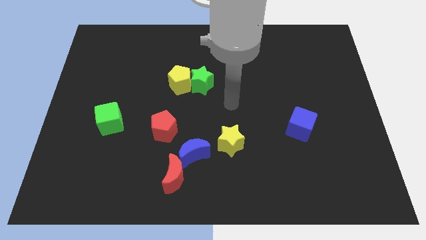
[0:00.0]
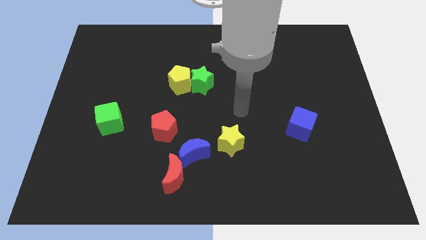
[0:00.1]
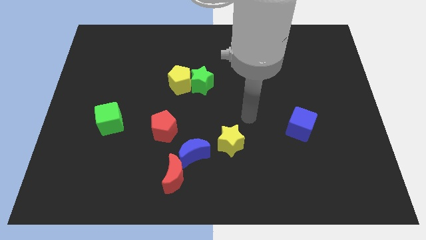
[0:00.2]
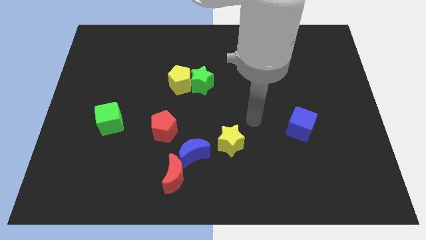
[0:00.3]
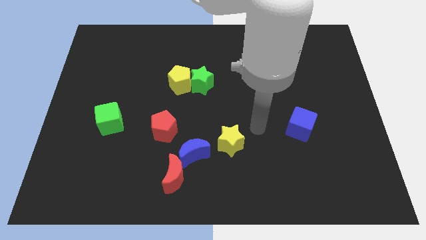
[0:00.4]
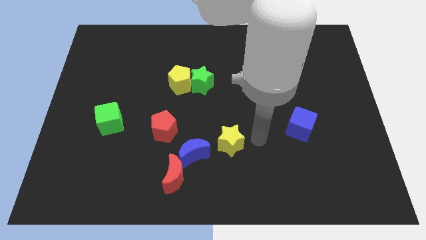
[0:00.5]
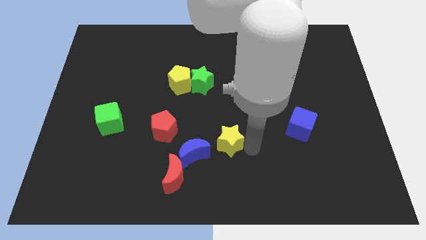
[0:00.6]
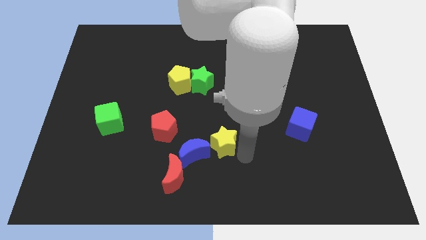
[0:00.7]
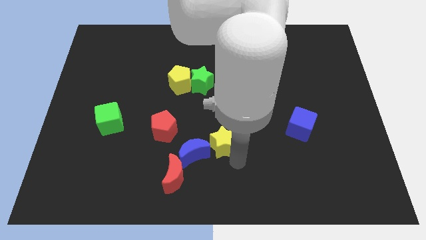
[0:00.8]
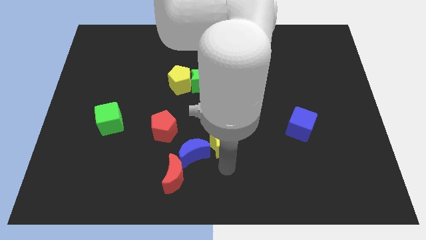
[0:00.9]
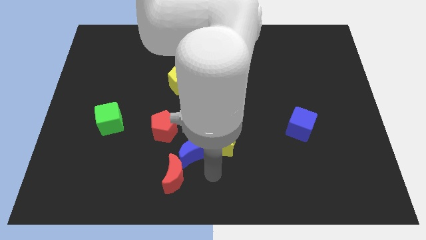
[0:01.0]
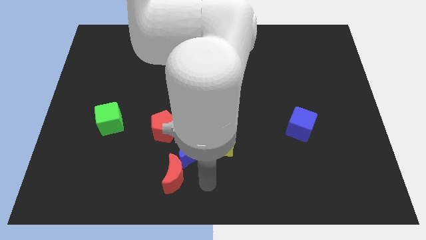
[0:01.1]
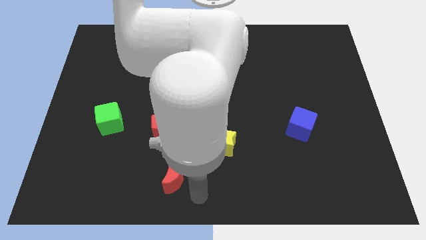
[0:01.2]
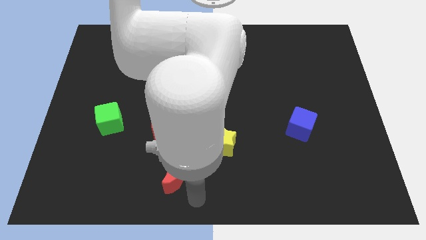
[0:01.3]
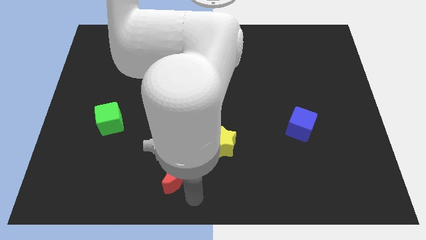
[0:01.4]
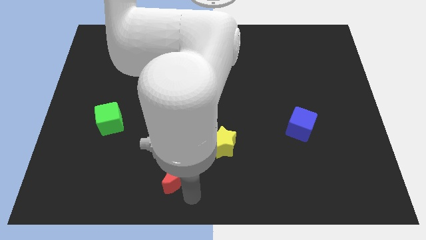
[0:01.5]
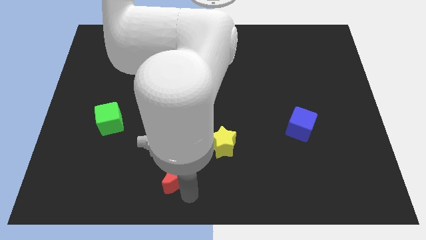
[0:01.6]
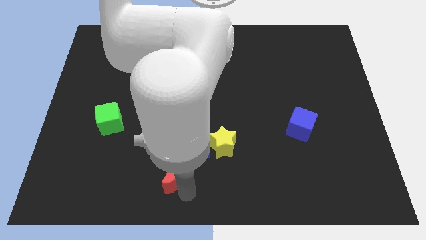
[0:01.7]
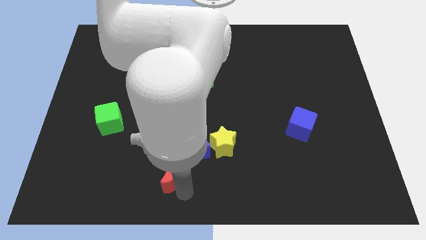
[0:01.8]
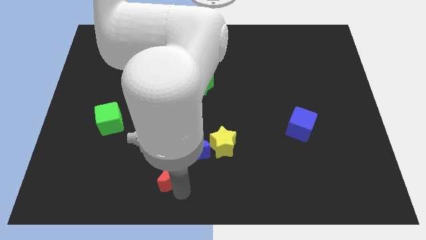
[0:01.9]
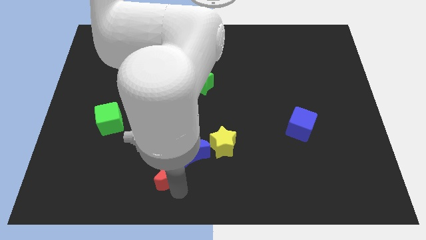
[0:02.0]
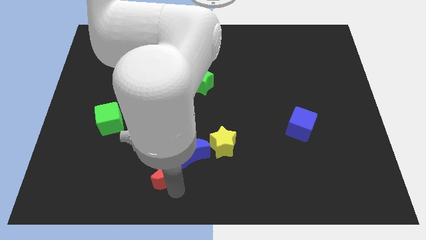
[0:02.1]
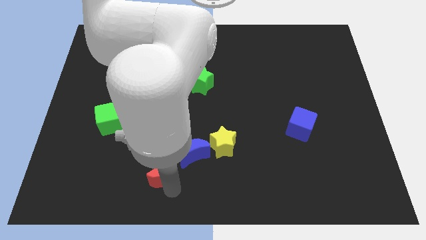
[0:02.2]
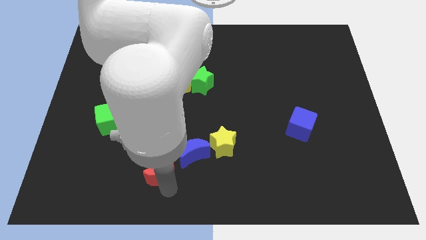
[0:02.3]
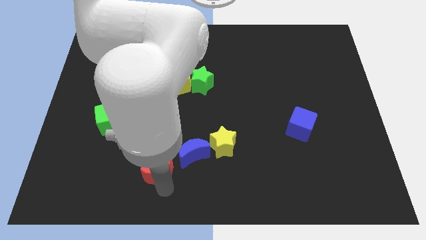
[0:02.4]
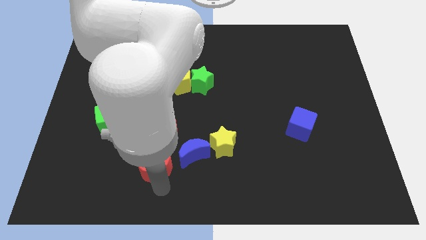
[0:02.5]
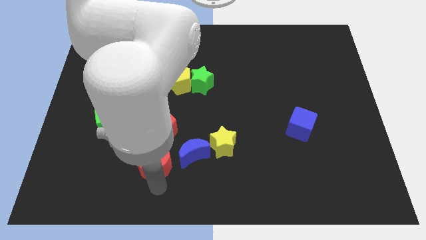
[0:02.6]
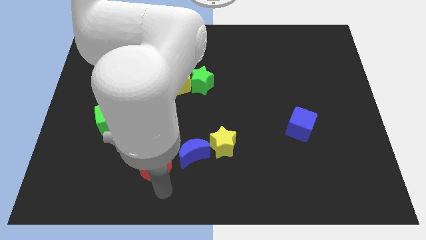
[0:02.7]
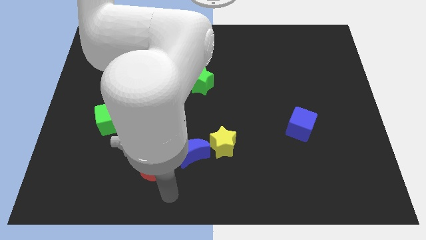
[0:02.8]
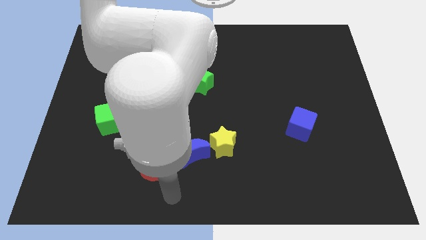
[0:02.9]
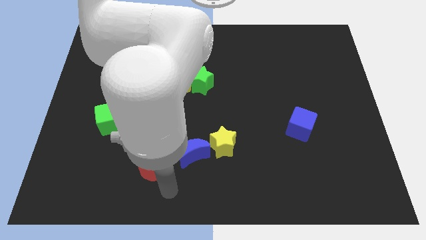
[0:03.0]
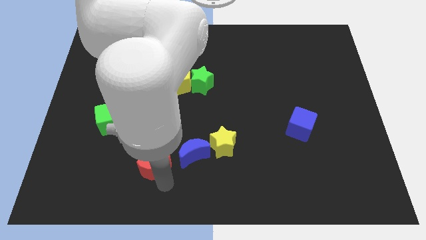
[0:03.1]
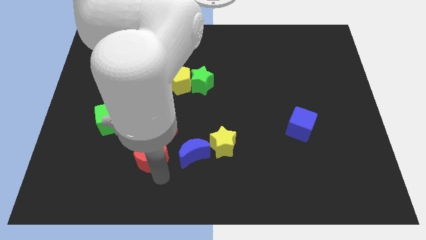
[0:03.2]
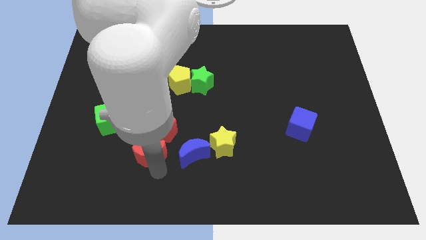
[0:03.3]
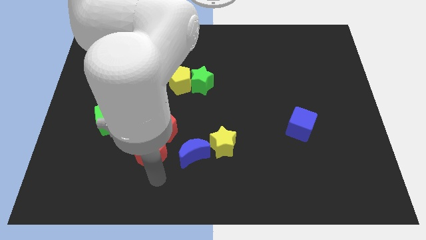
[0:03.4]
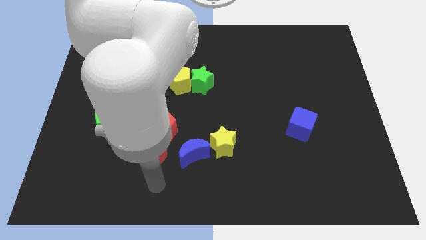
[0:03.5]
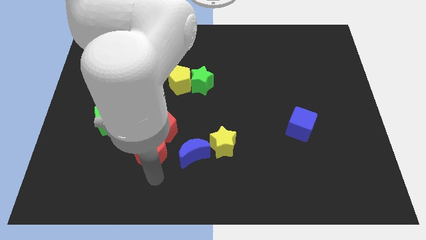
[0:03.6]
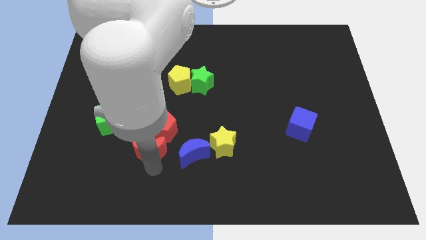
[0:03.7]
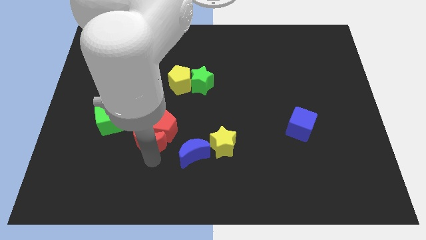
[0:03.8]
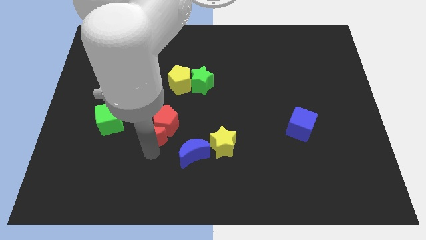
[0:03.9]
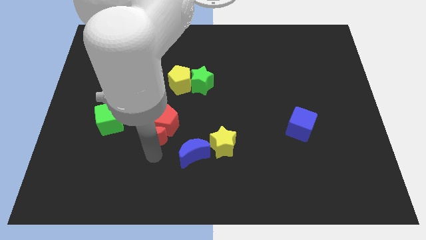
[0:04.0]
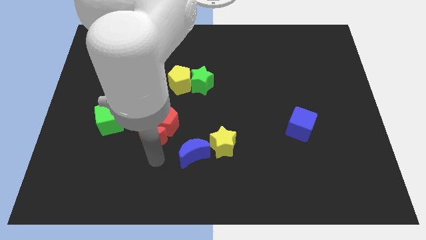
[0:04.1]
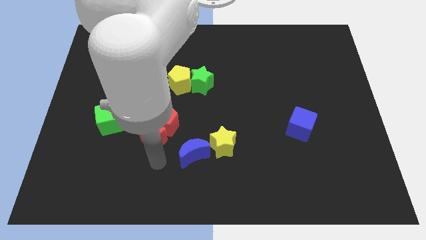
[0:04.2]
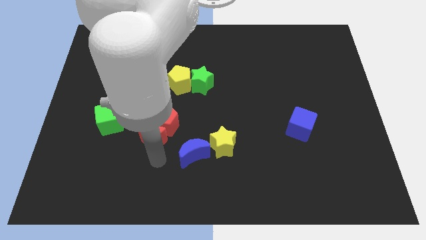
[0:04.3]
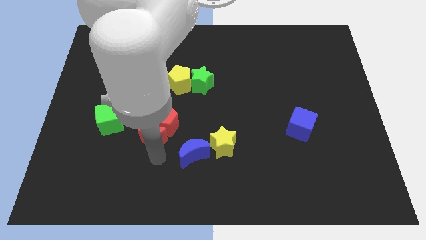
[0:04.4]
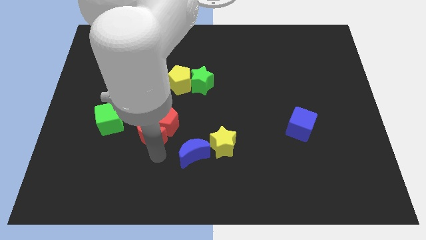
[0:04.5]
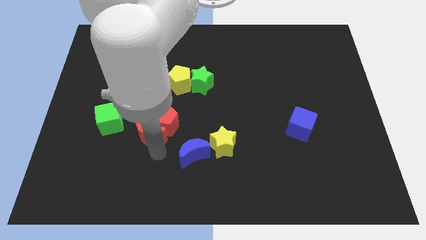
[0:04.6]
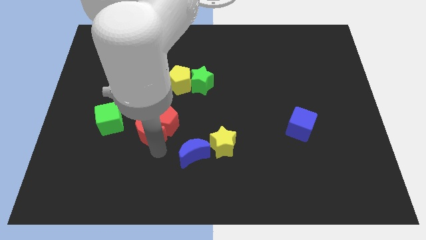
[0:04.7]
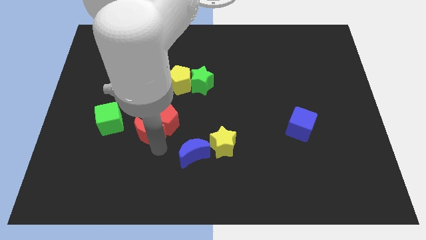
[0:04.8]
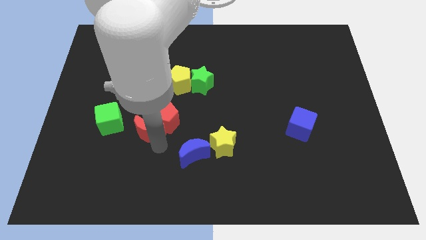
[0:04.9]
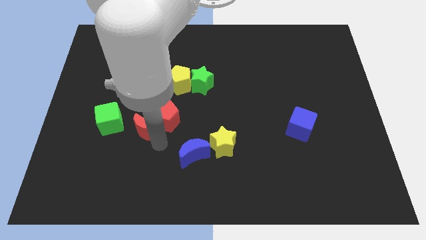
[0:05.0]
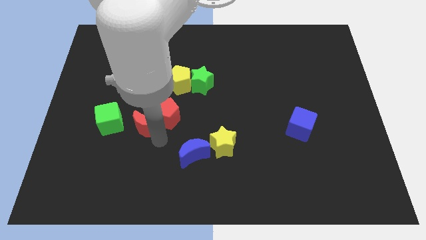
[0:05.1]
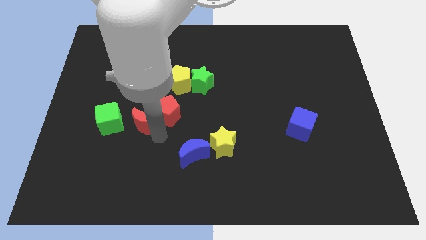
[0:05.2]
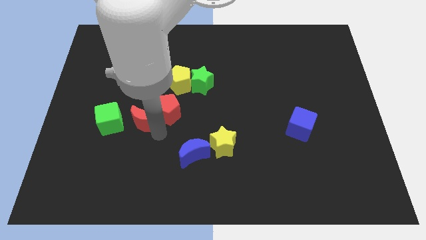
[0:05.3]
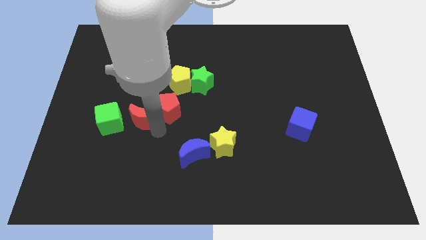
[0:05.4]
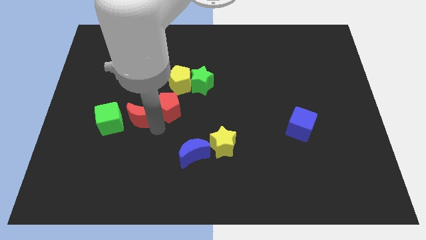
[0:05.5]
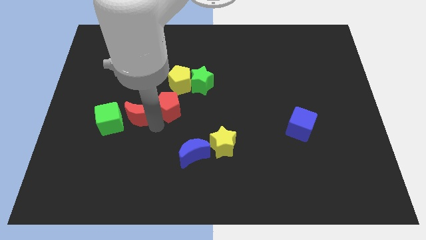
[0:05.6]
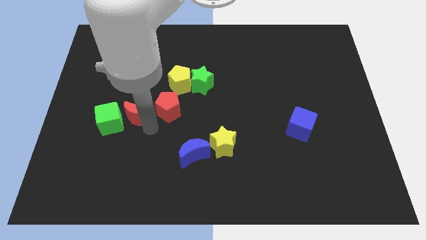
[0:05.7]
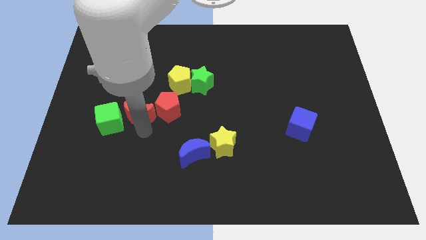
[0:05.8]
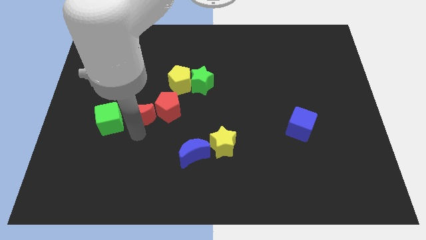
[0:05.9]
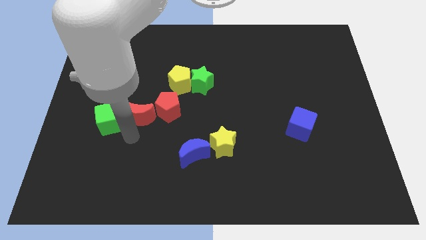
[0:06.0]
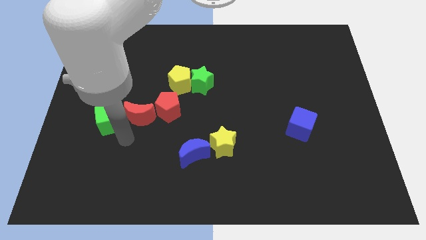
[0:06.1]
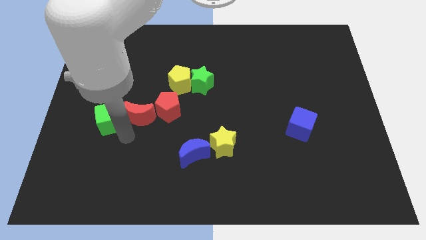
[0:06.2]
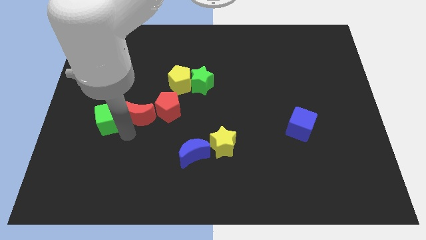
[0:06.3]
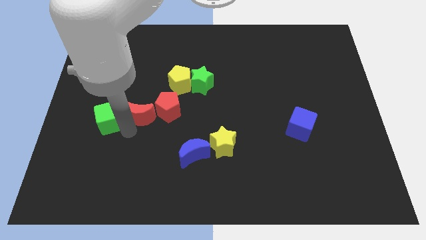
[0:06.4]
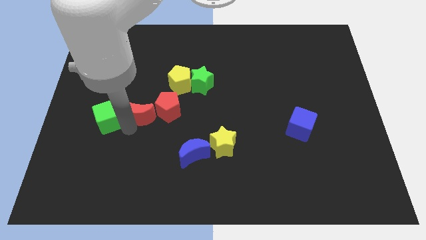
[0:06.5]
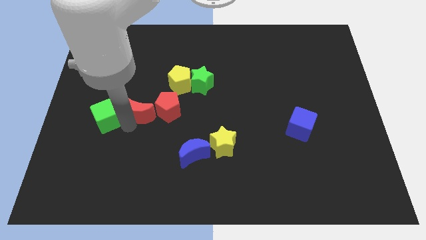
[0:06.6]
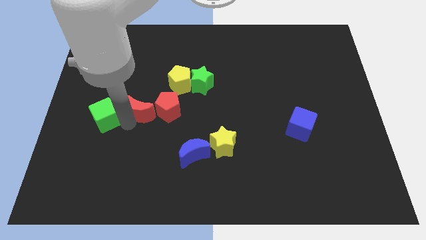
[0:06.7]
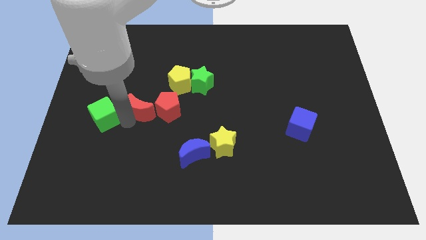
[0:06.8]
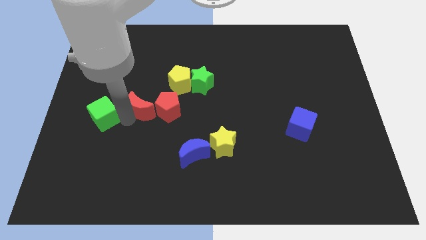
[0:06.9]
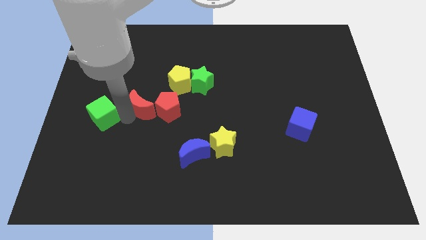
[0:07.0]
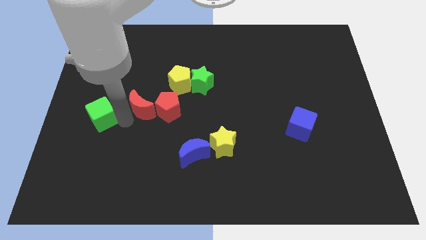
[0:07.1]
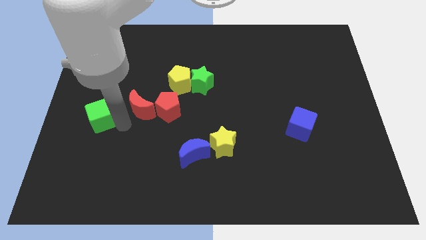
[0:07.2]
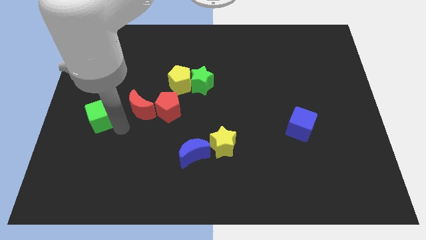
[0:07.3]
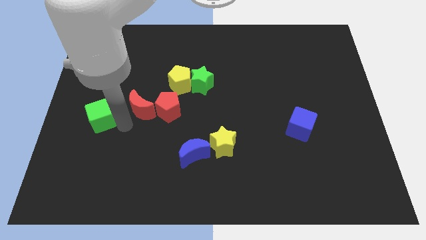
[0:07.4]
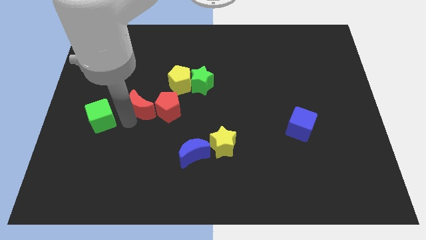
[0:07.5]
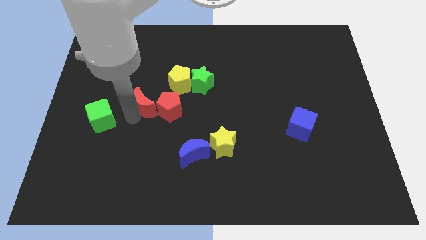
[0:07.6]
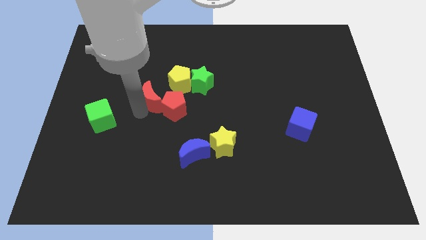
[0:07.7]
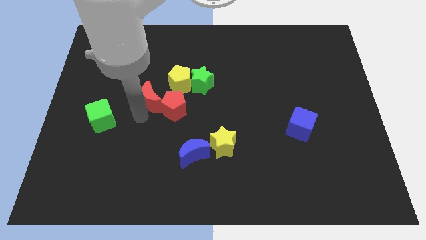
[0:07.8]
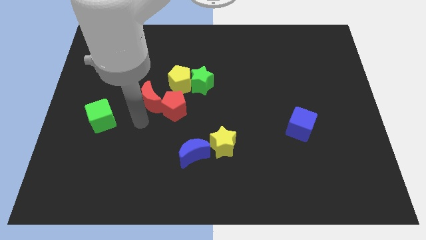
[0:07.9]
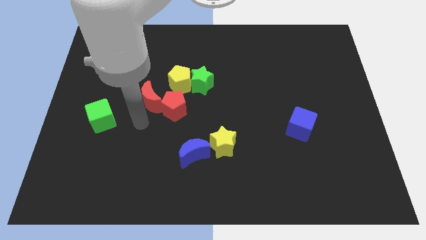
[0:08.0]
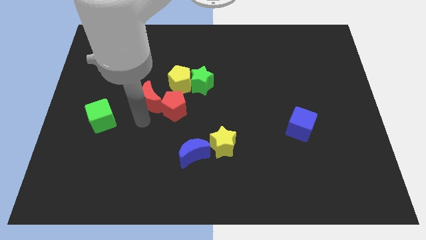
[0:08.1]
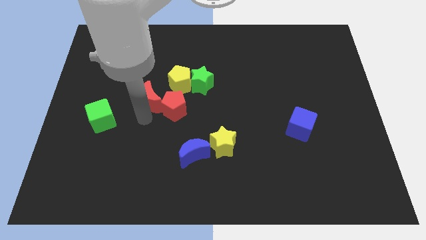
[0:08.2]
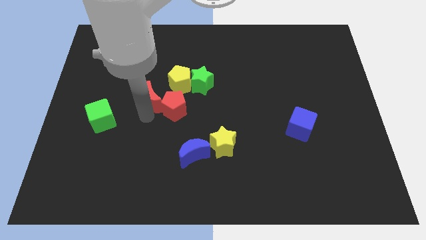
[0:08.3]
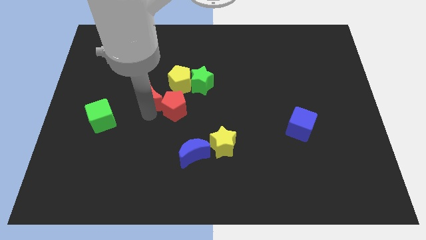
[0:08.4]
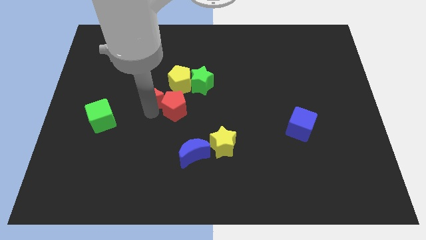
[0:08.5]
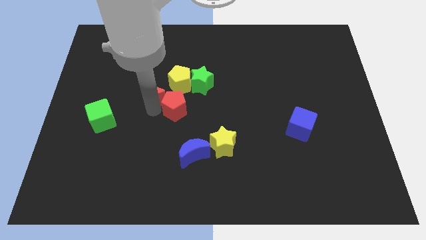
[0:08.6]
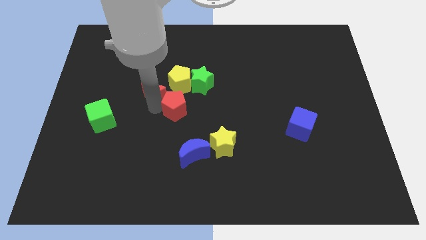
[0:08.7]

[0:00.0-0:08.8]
push the red moon up
